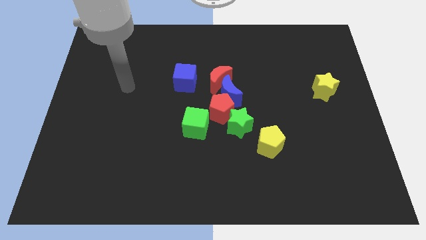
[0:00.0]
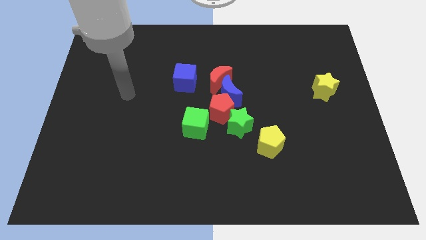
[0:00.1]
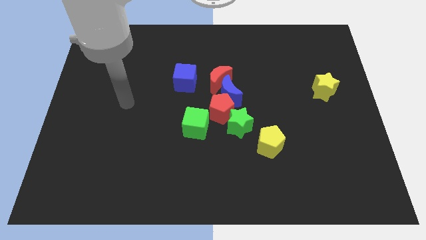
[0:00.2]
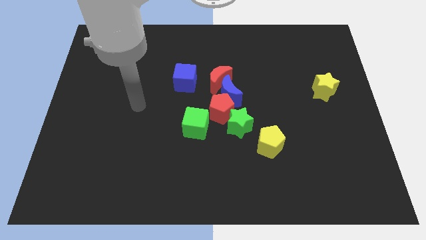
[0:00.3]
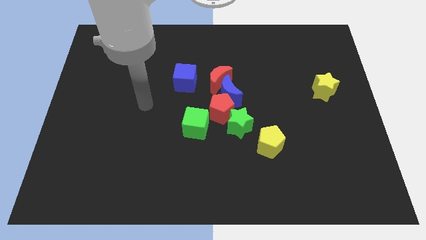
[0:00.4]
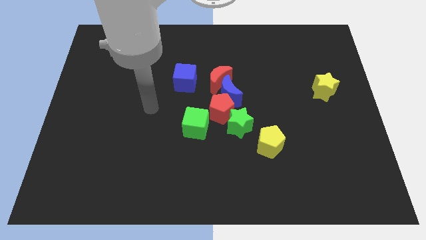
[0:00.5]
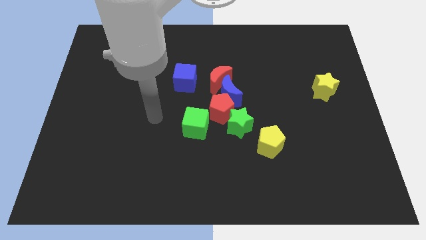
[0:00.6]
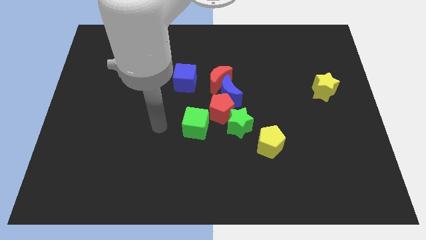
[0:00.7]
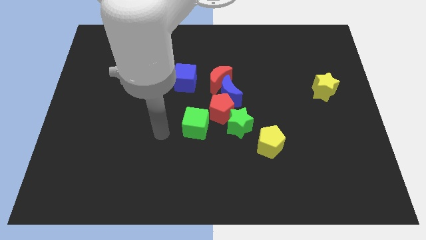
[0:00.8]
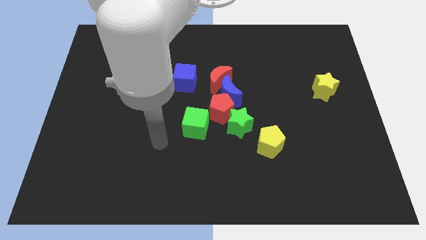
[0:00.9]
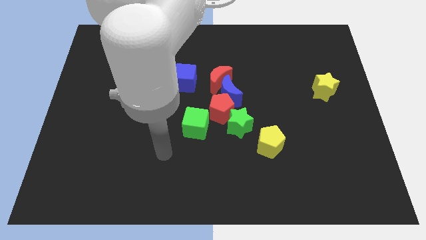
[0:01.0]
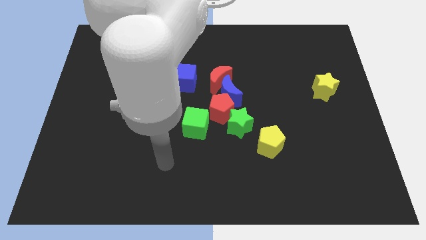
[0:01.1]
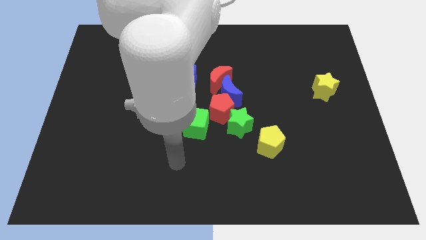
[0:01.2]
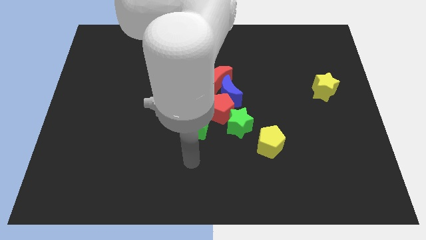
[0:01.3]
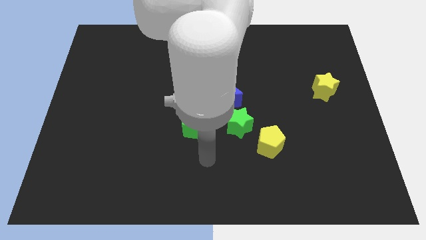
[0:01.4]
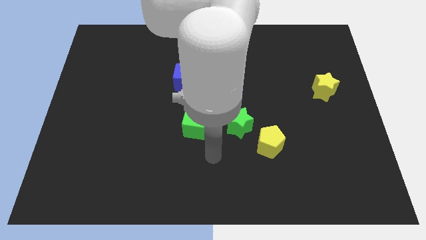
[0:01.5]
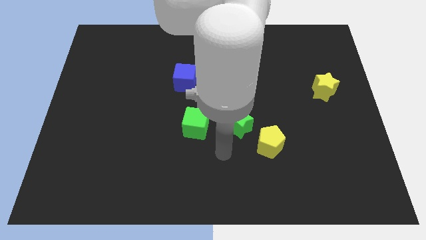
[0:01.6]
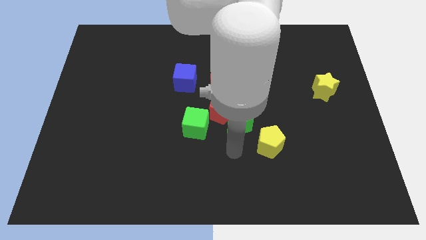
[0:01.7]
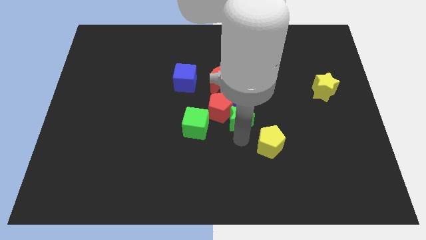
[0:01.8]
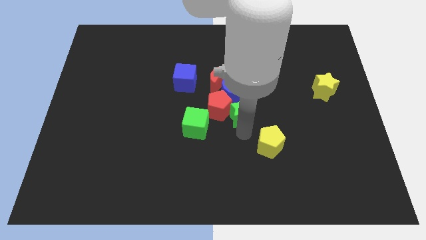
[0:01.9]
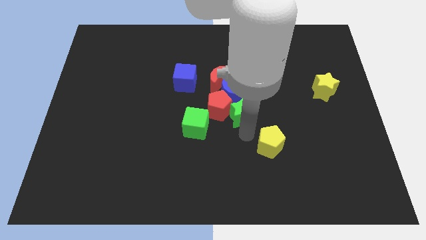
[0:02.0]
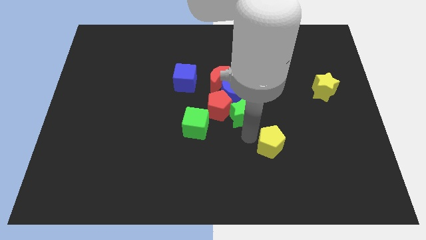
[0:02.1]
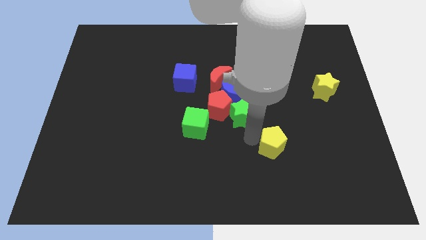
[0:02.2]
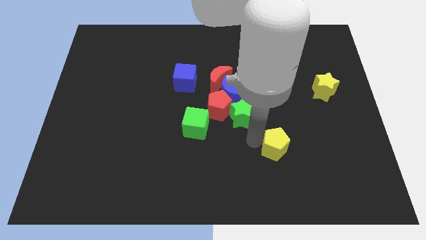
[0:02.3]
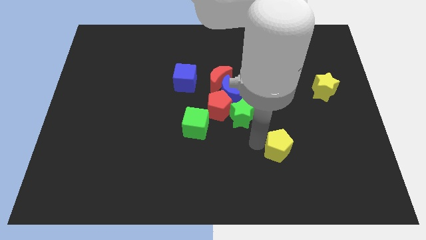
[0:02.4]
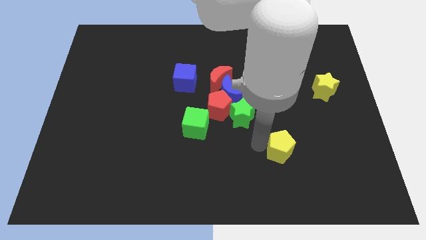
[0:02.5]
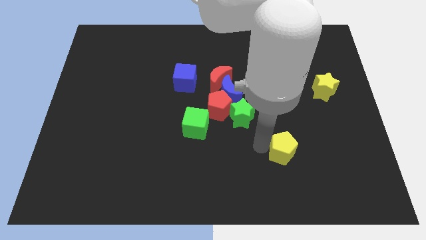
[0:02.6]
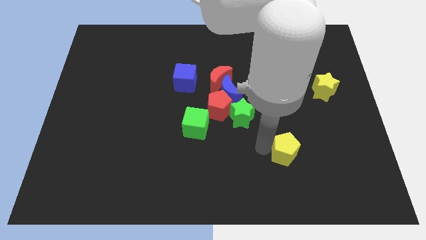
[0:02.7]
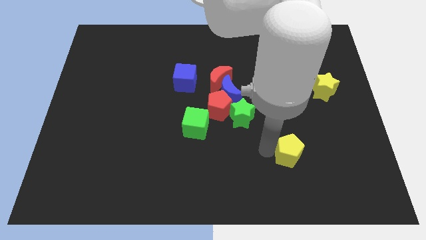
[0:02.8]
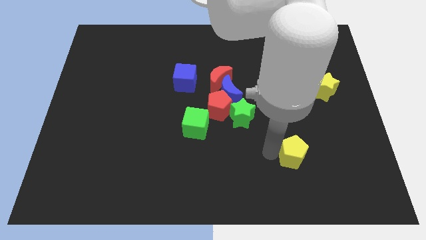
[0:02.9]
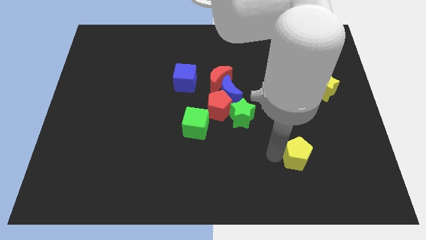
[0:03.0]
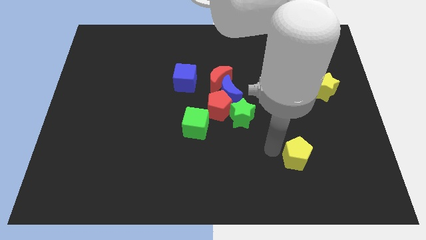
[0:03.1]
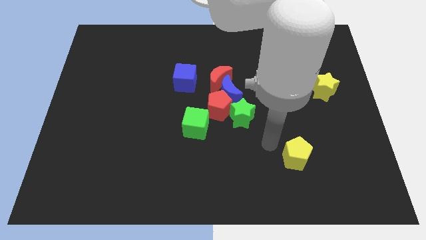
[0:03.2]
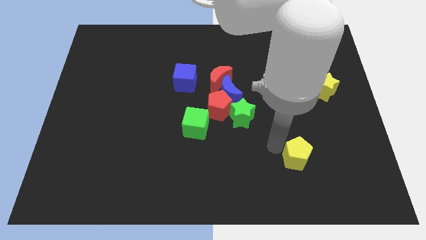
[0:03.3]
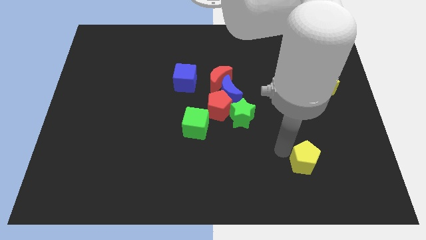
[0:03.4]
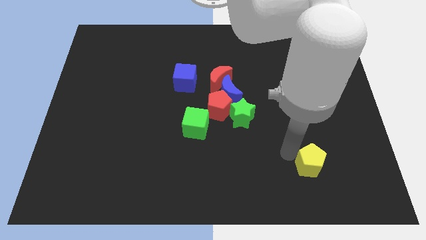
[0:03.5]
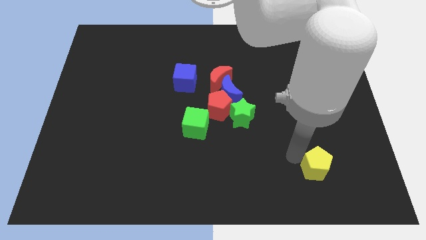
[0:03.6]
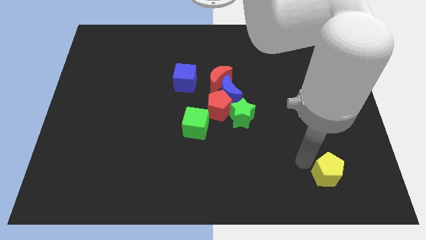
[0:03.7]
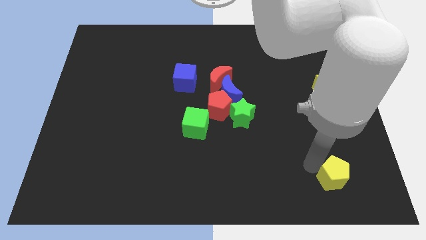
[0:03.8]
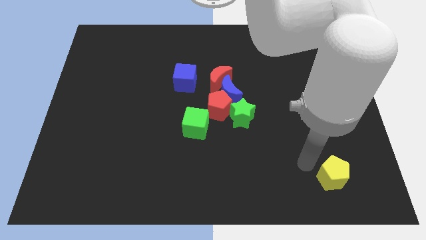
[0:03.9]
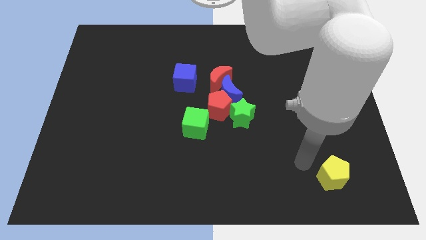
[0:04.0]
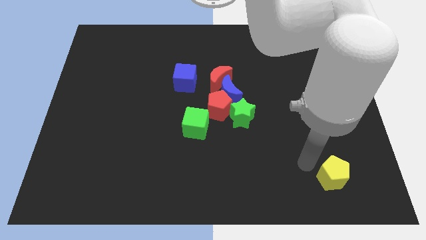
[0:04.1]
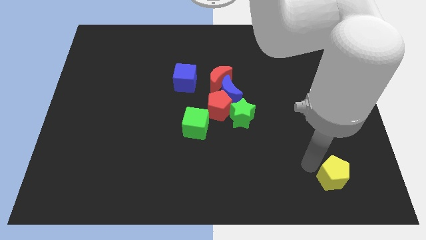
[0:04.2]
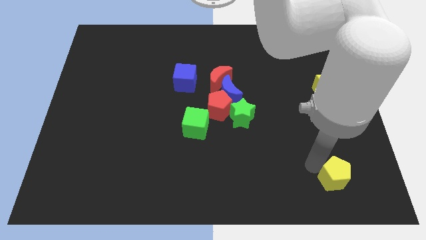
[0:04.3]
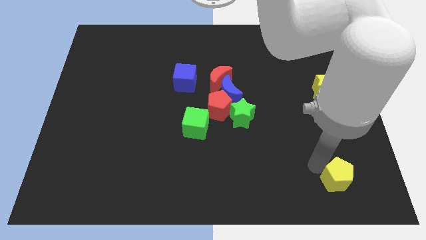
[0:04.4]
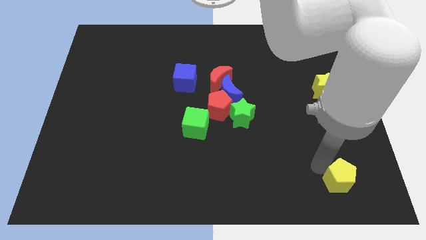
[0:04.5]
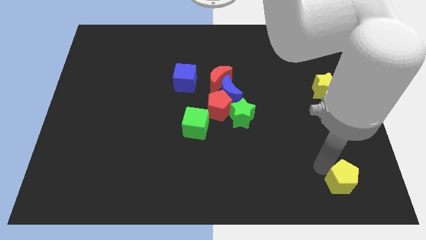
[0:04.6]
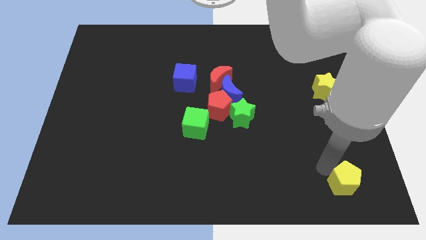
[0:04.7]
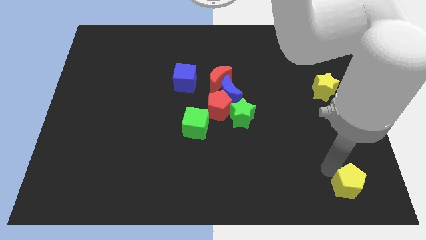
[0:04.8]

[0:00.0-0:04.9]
slide the yellow pentagon to the bottom right

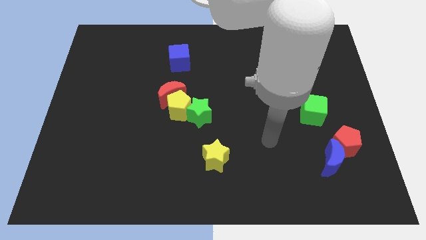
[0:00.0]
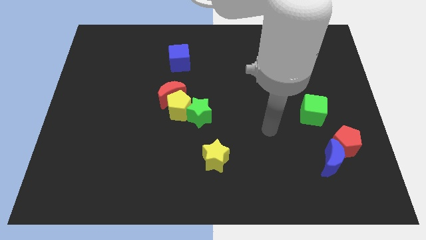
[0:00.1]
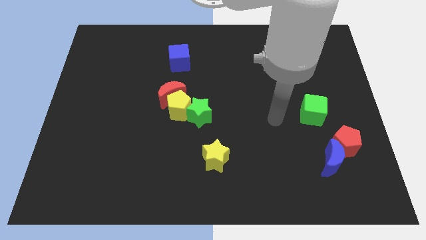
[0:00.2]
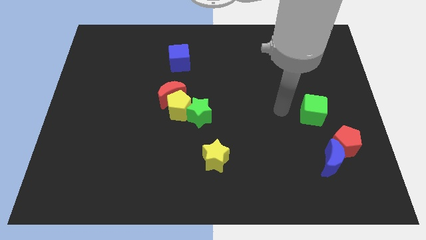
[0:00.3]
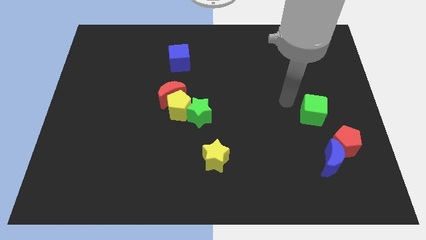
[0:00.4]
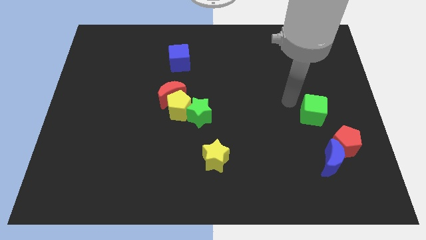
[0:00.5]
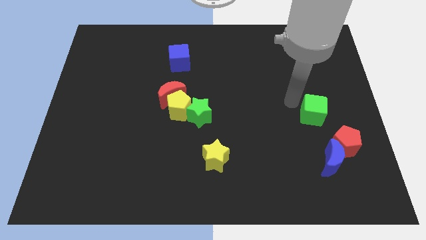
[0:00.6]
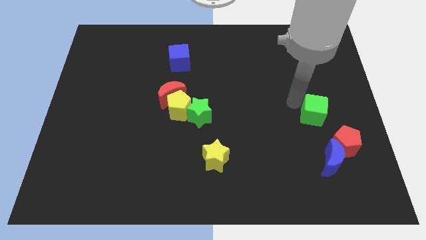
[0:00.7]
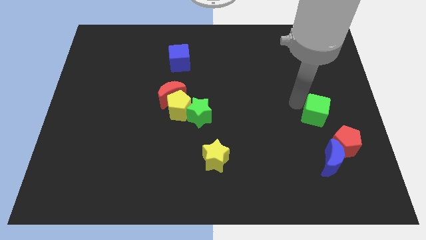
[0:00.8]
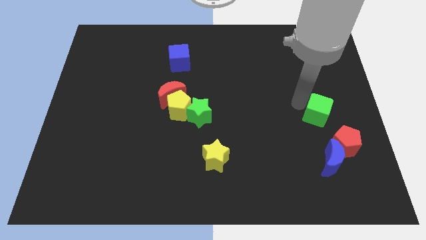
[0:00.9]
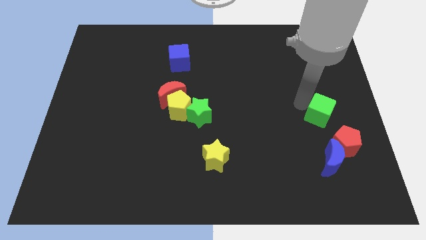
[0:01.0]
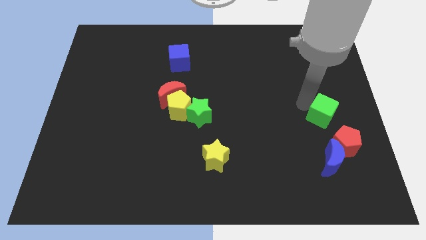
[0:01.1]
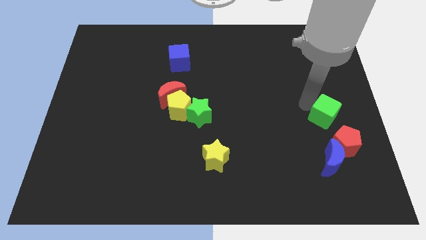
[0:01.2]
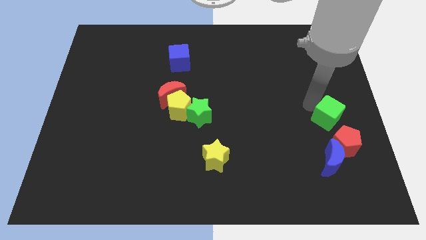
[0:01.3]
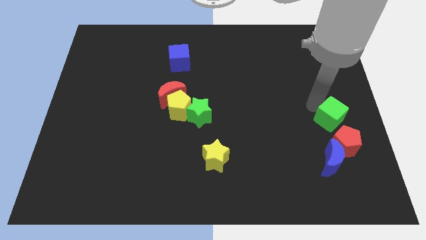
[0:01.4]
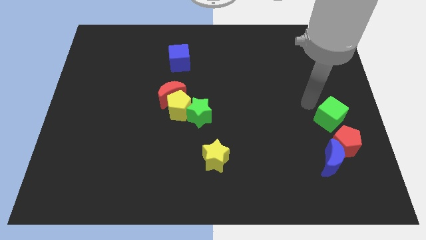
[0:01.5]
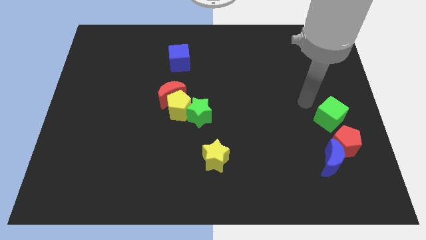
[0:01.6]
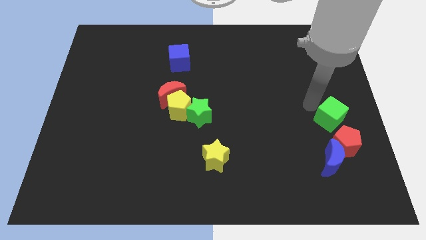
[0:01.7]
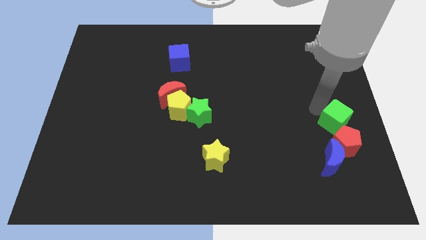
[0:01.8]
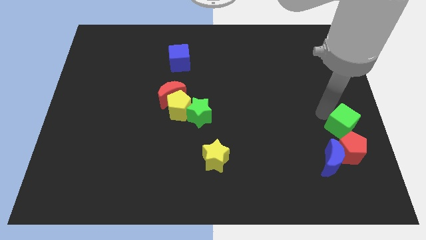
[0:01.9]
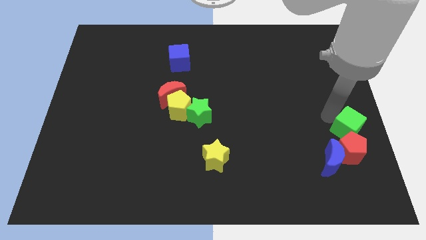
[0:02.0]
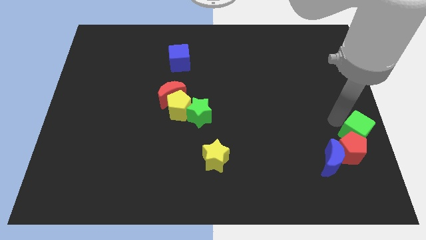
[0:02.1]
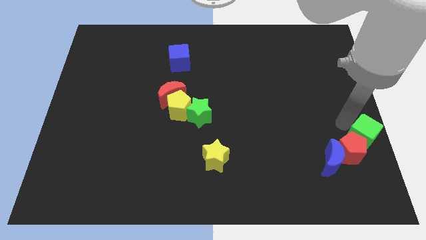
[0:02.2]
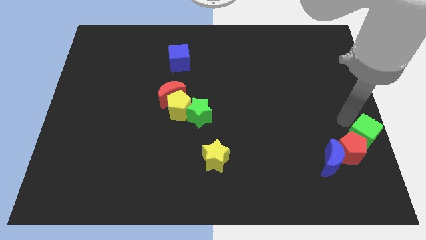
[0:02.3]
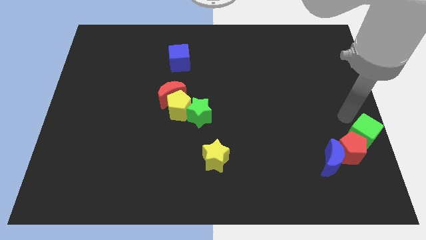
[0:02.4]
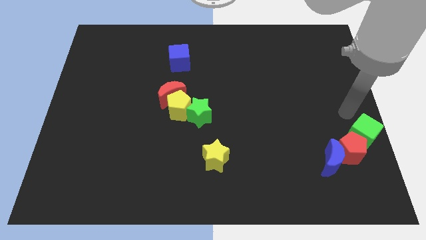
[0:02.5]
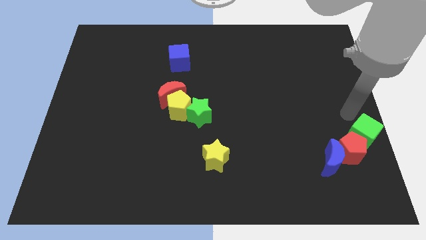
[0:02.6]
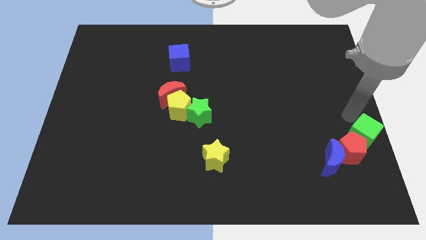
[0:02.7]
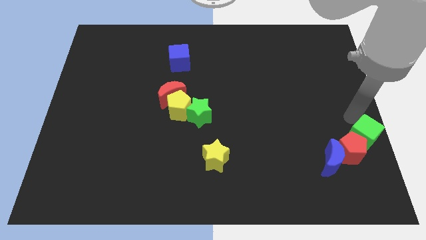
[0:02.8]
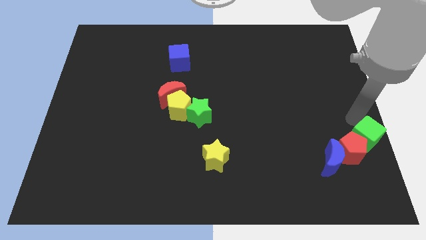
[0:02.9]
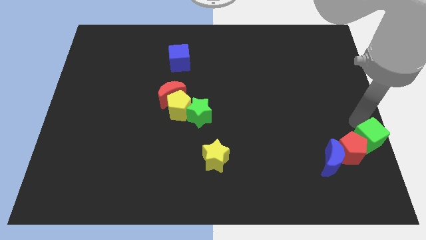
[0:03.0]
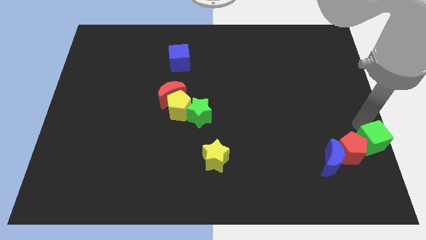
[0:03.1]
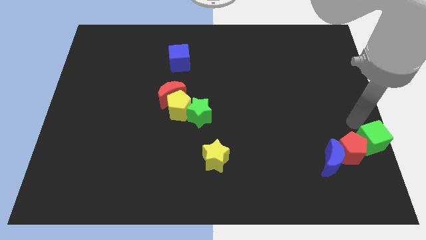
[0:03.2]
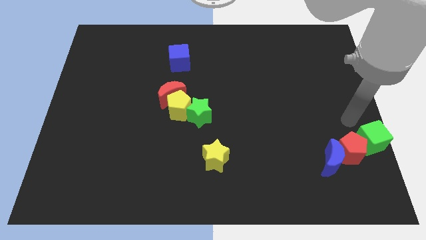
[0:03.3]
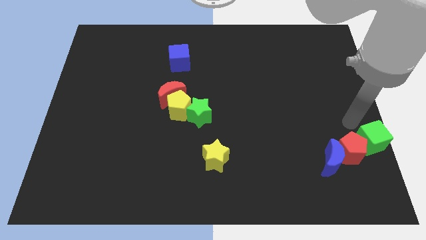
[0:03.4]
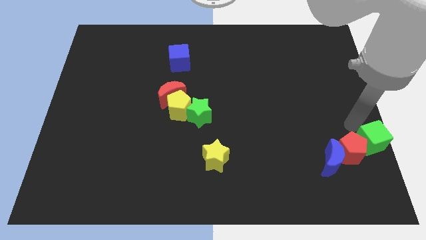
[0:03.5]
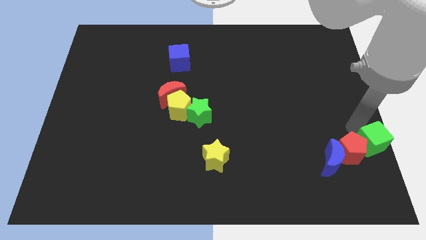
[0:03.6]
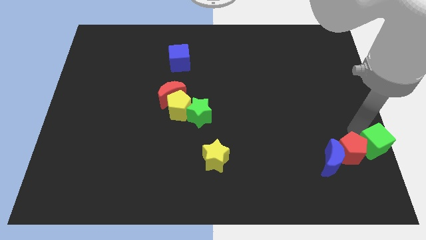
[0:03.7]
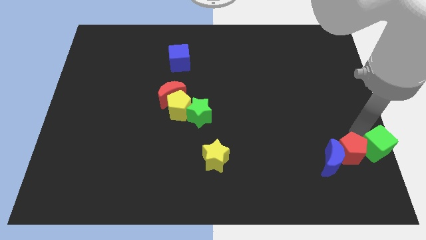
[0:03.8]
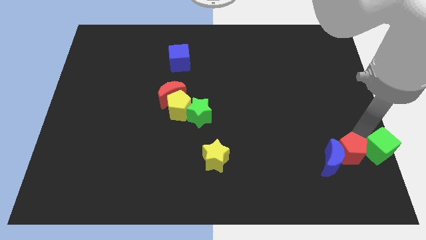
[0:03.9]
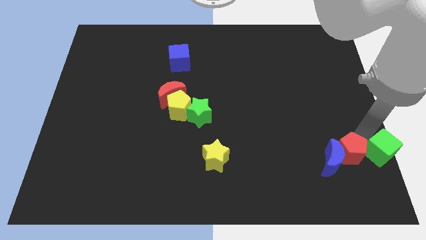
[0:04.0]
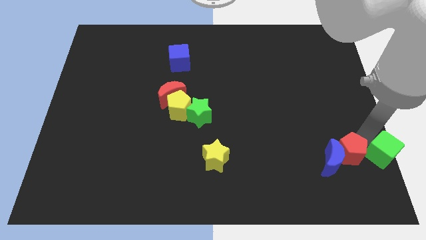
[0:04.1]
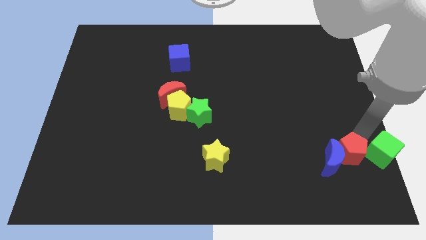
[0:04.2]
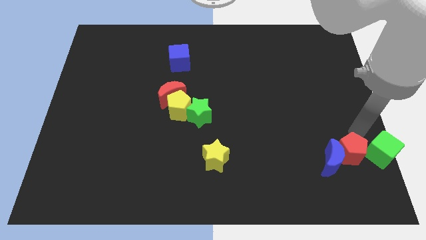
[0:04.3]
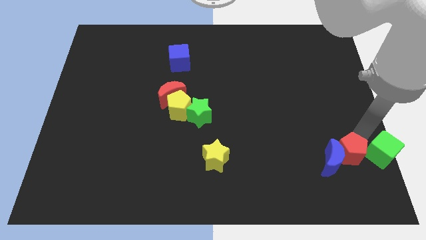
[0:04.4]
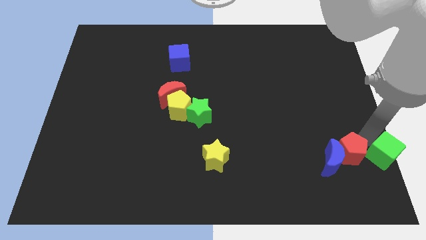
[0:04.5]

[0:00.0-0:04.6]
move the green cube to the bottom right of the board
